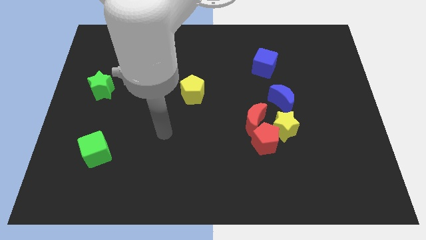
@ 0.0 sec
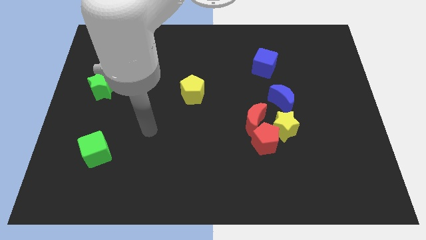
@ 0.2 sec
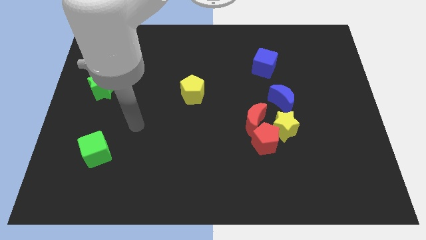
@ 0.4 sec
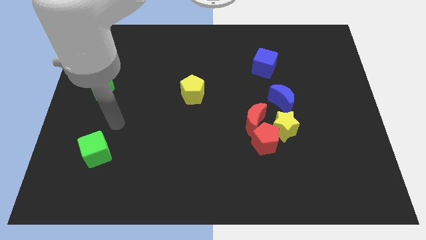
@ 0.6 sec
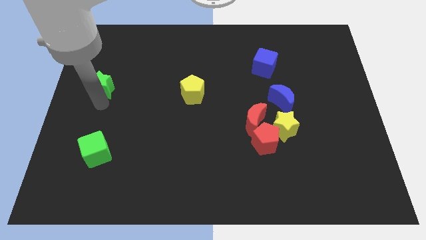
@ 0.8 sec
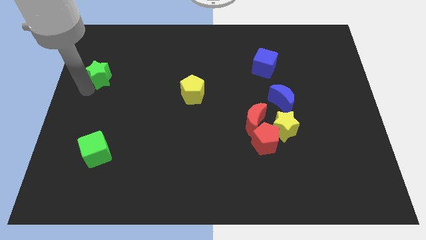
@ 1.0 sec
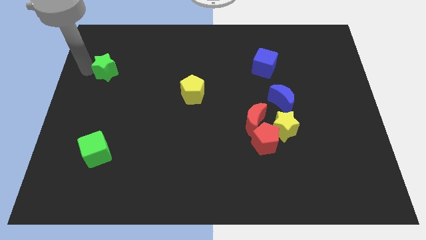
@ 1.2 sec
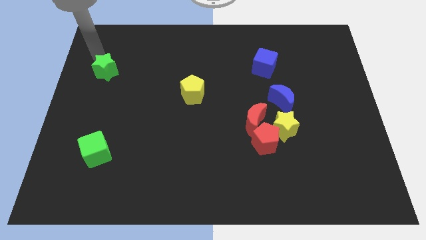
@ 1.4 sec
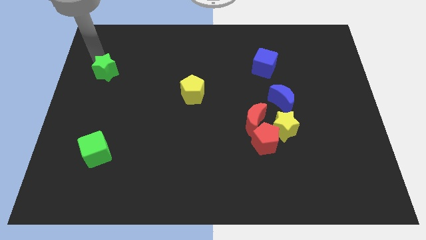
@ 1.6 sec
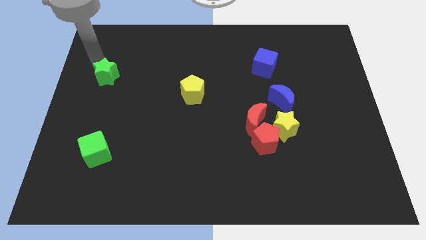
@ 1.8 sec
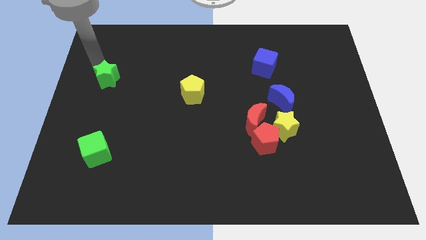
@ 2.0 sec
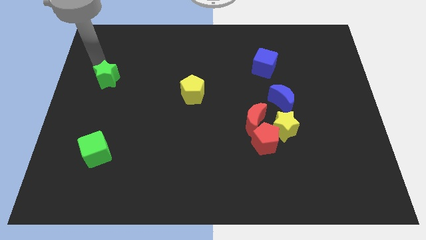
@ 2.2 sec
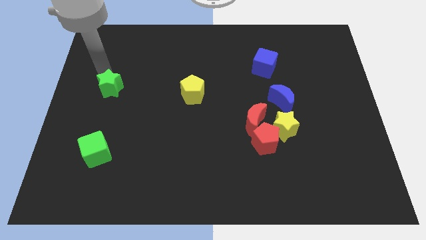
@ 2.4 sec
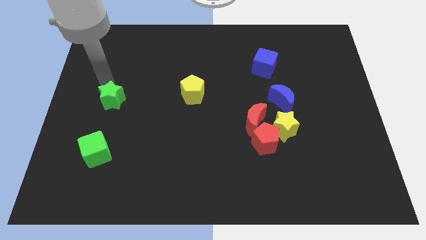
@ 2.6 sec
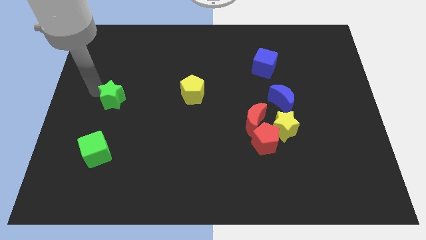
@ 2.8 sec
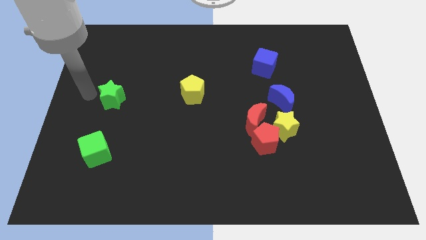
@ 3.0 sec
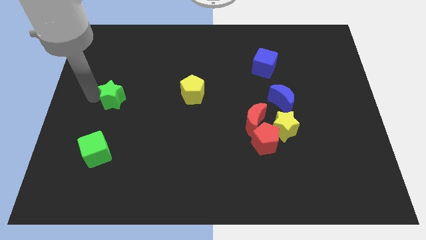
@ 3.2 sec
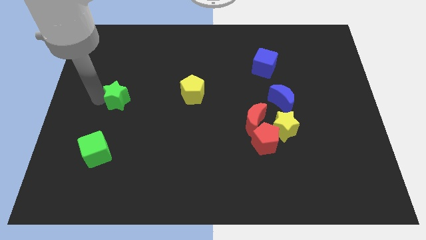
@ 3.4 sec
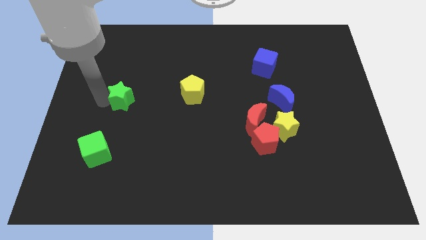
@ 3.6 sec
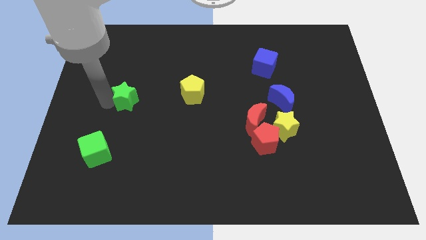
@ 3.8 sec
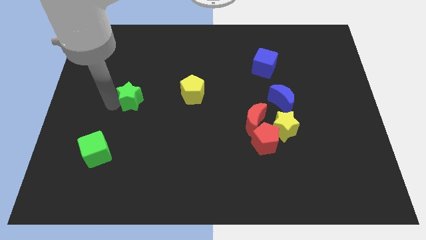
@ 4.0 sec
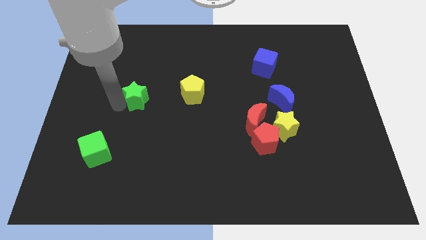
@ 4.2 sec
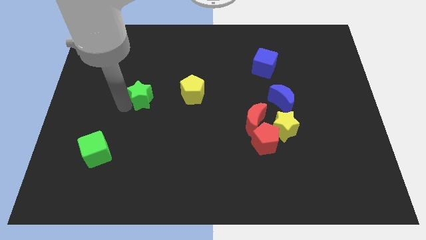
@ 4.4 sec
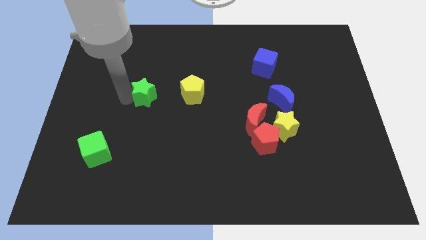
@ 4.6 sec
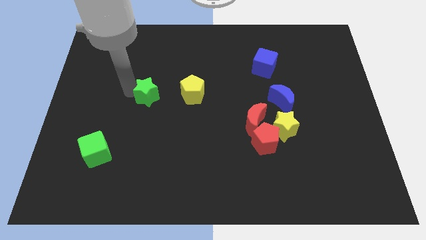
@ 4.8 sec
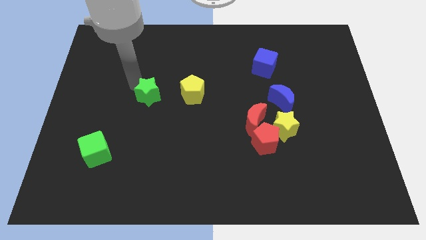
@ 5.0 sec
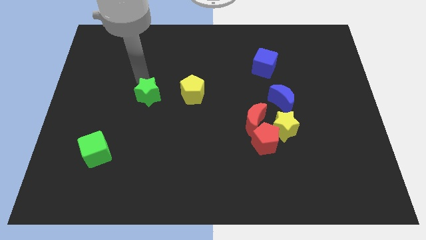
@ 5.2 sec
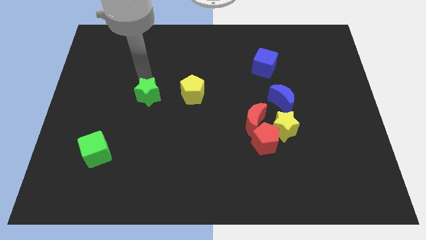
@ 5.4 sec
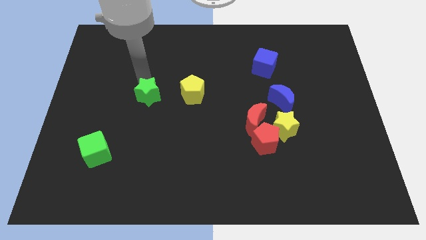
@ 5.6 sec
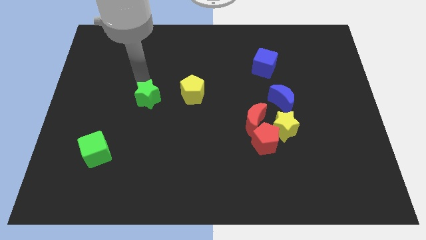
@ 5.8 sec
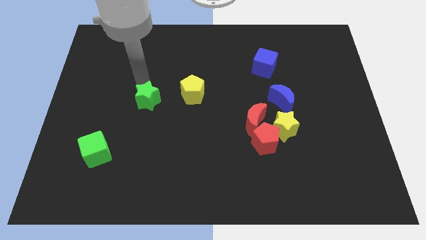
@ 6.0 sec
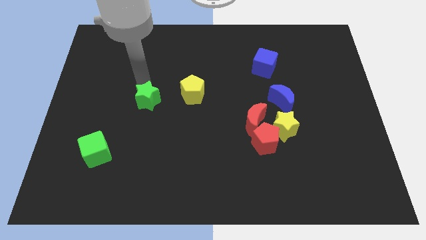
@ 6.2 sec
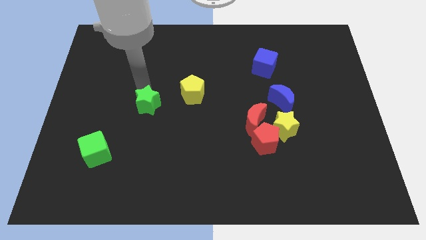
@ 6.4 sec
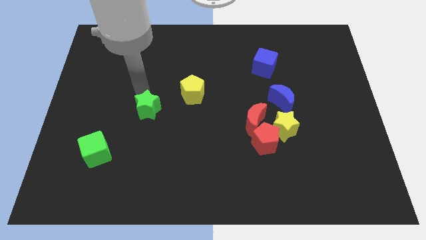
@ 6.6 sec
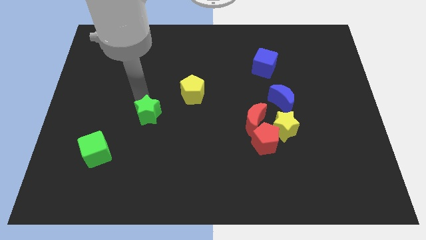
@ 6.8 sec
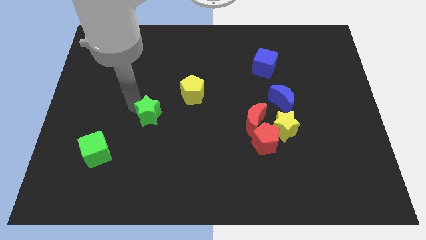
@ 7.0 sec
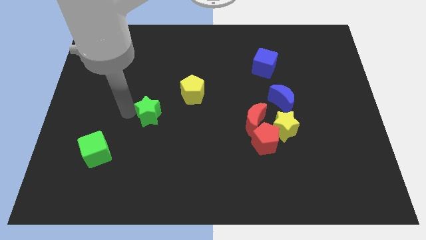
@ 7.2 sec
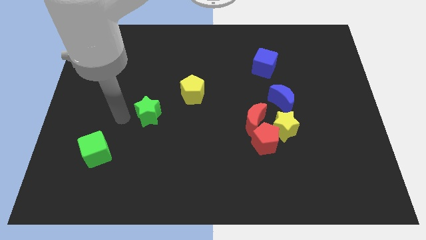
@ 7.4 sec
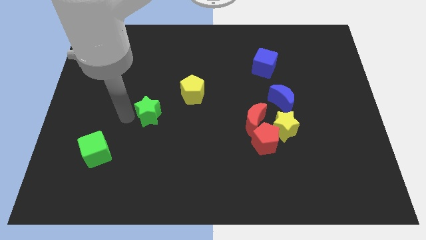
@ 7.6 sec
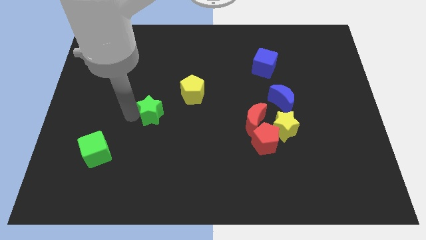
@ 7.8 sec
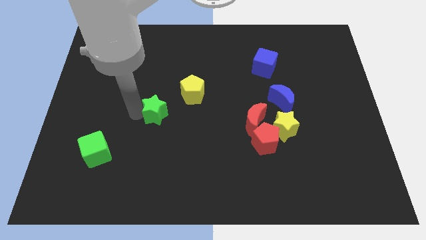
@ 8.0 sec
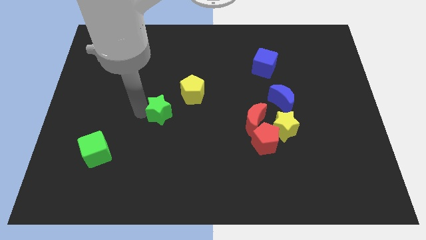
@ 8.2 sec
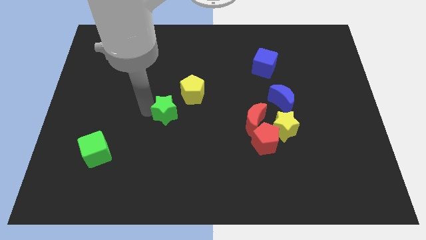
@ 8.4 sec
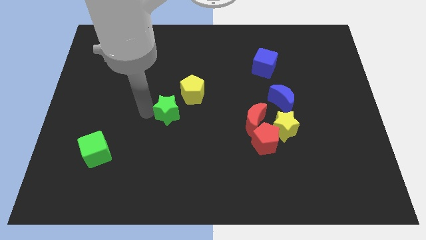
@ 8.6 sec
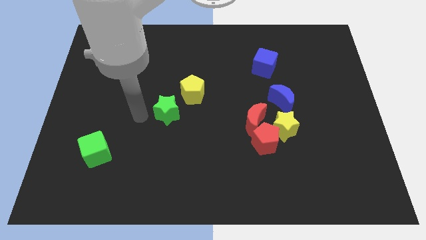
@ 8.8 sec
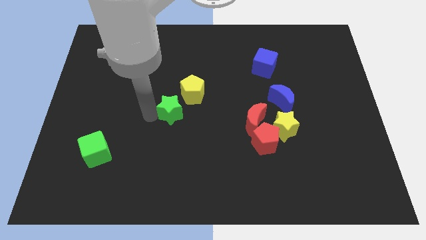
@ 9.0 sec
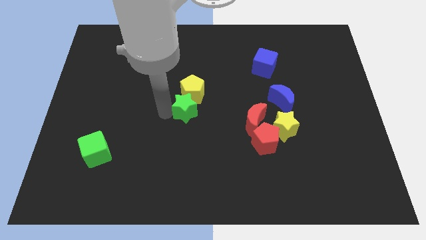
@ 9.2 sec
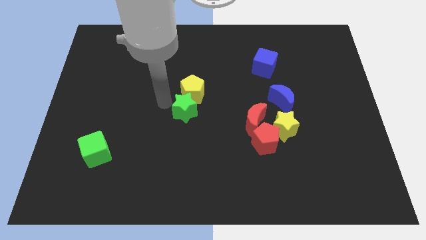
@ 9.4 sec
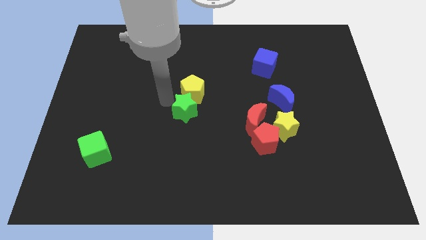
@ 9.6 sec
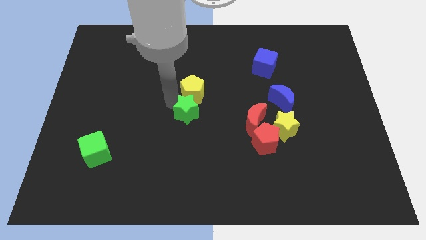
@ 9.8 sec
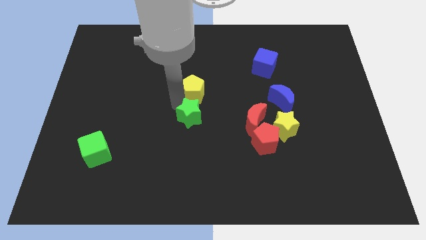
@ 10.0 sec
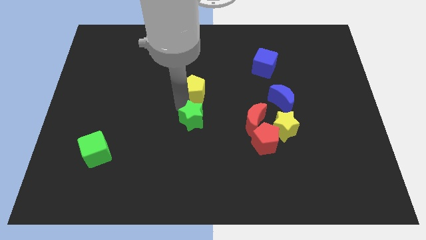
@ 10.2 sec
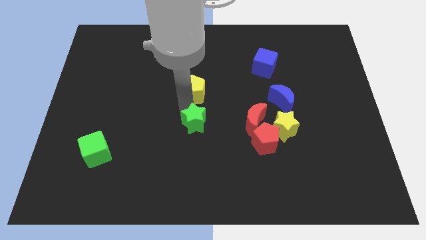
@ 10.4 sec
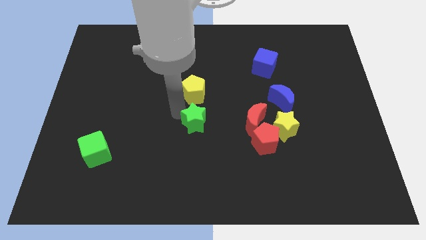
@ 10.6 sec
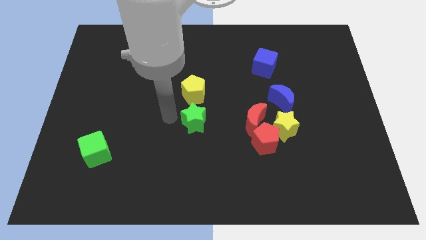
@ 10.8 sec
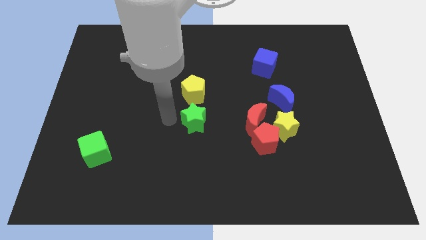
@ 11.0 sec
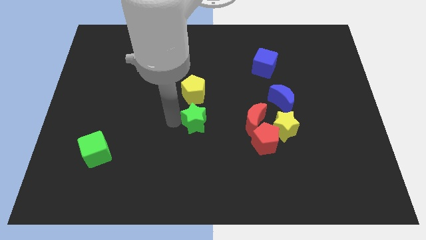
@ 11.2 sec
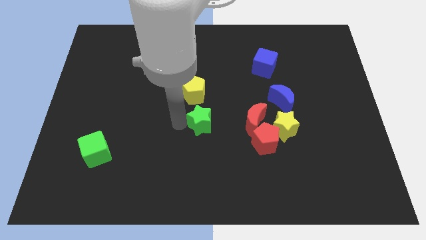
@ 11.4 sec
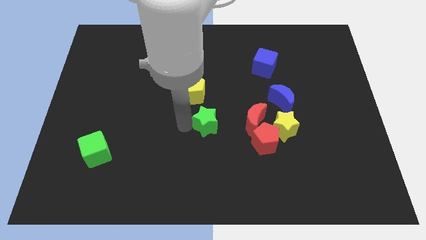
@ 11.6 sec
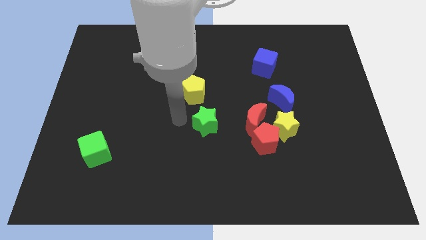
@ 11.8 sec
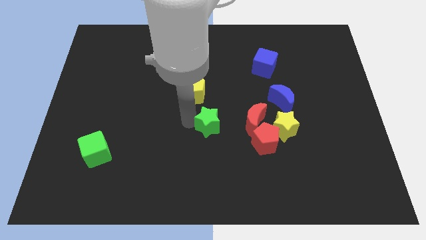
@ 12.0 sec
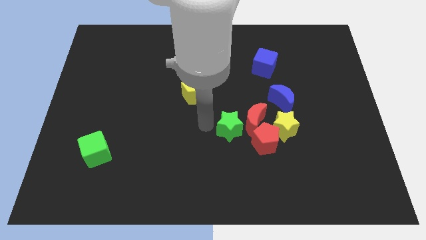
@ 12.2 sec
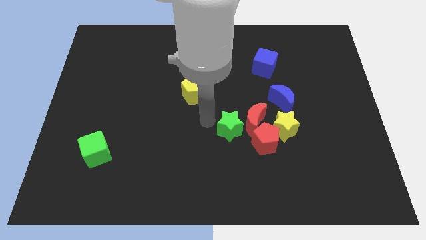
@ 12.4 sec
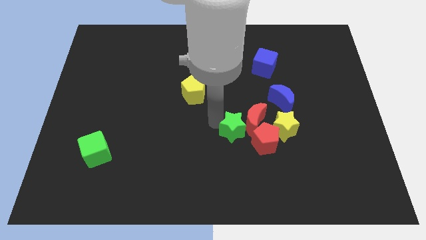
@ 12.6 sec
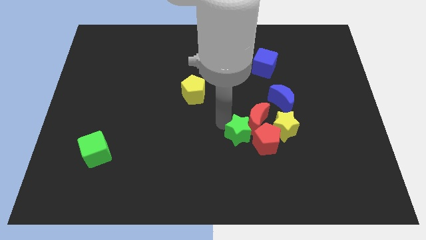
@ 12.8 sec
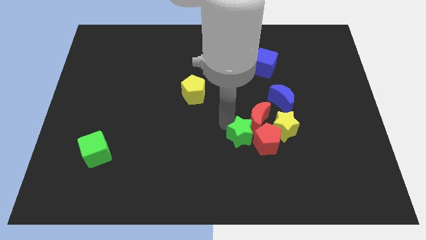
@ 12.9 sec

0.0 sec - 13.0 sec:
move the green star next to the red pentagon

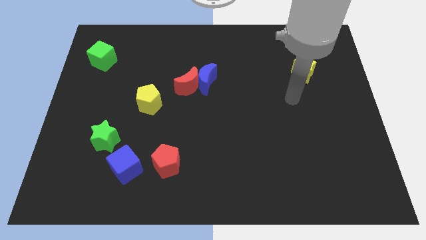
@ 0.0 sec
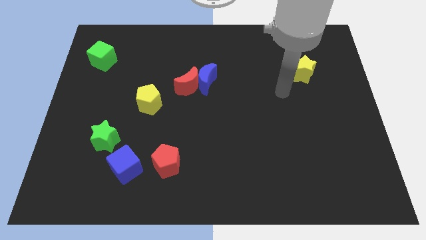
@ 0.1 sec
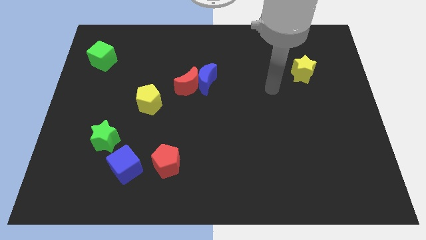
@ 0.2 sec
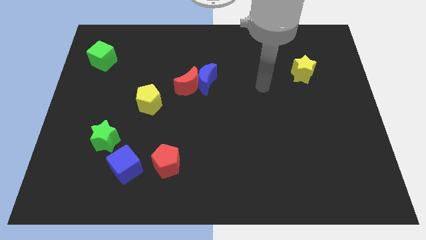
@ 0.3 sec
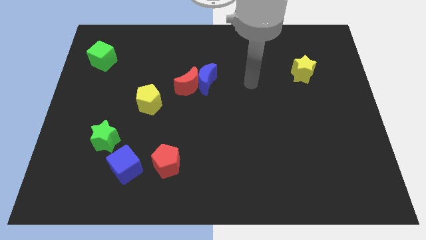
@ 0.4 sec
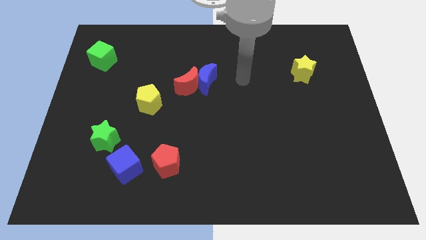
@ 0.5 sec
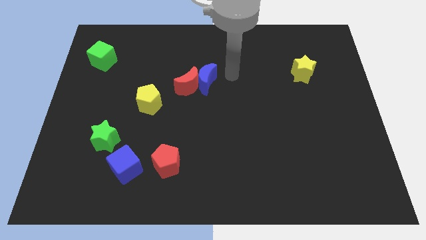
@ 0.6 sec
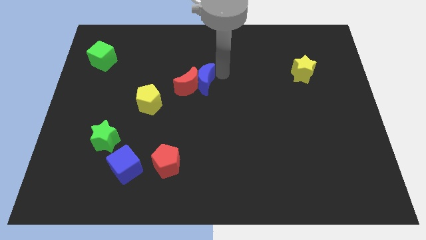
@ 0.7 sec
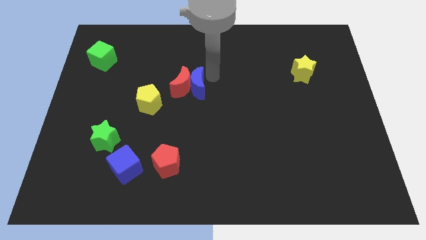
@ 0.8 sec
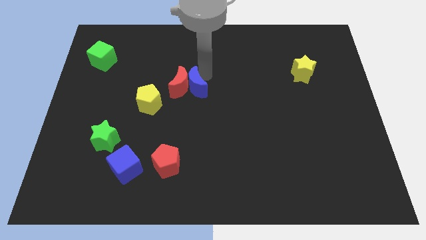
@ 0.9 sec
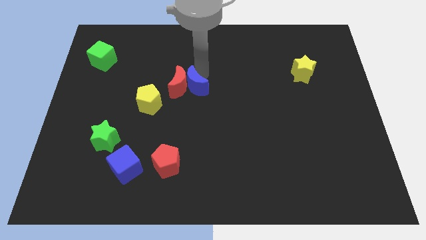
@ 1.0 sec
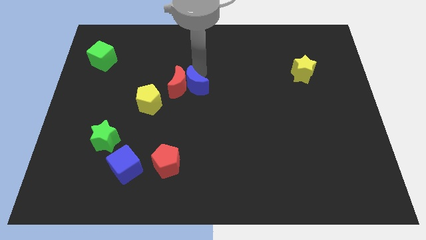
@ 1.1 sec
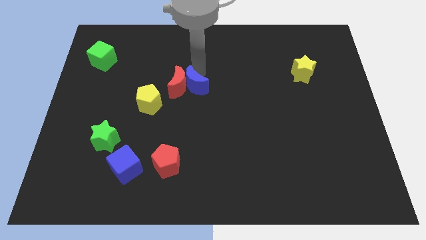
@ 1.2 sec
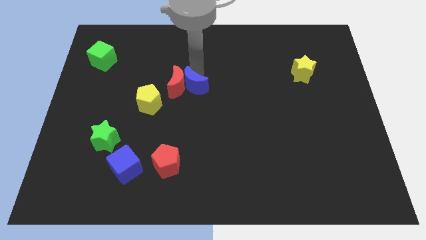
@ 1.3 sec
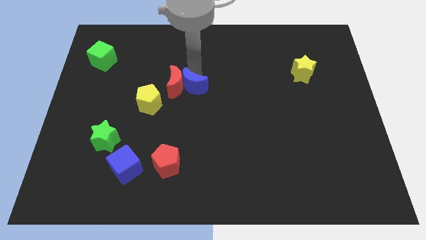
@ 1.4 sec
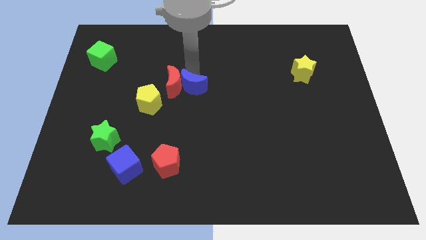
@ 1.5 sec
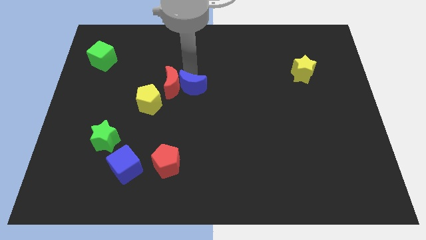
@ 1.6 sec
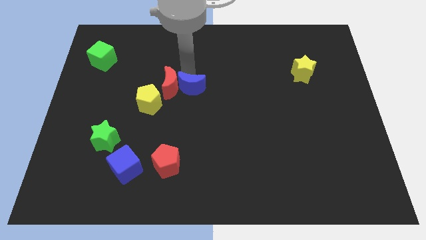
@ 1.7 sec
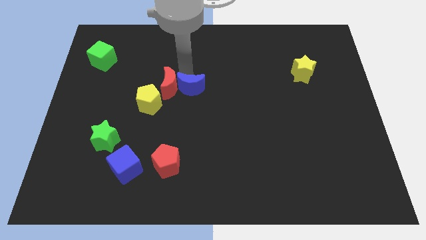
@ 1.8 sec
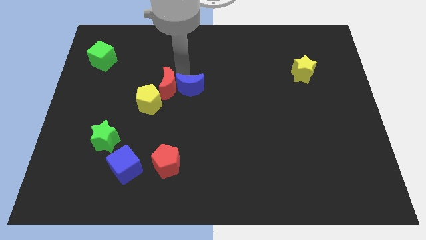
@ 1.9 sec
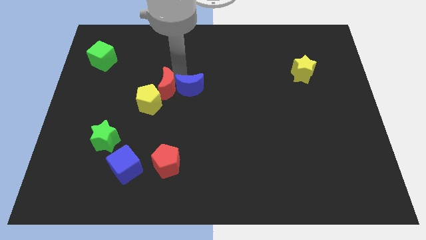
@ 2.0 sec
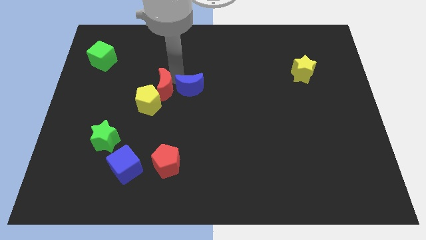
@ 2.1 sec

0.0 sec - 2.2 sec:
slide the red moon close to the yellow pentagon
